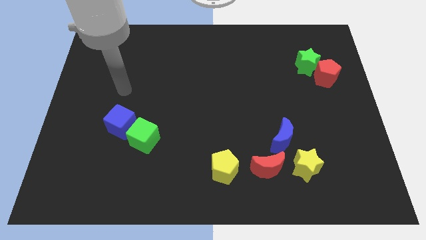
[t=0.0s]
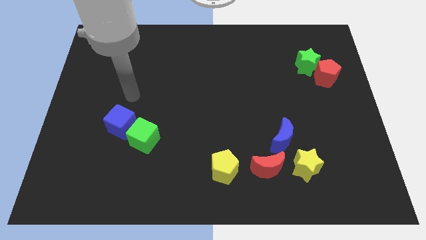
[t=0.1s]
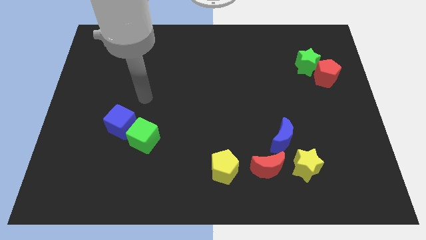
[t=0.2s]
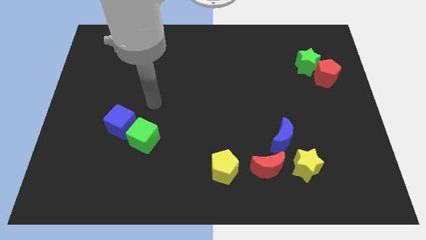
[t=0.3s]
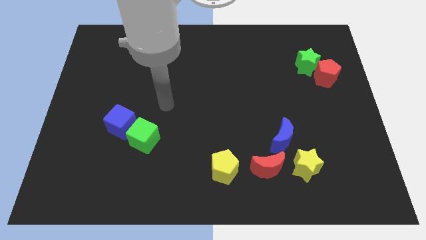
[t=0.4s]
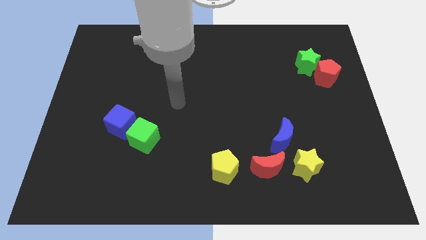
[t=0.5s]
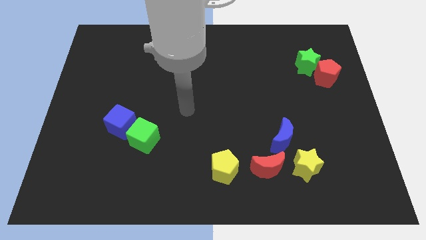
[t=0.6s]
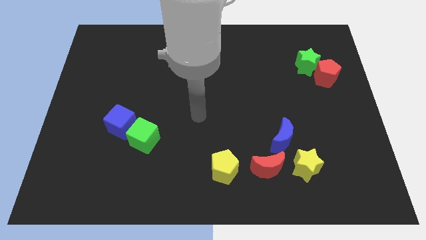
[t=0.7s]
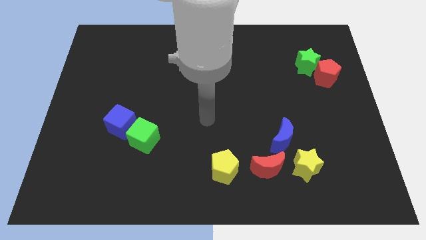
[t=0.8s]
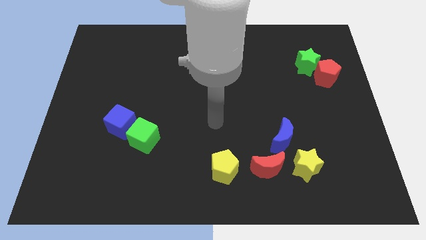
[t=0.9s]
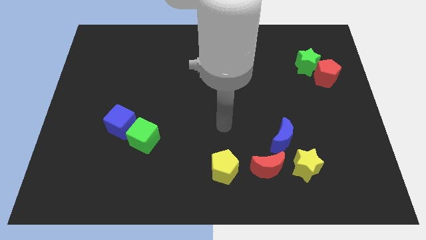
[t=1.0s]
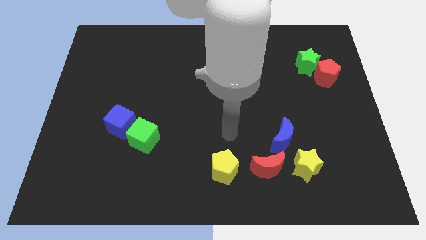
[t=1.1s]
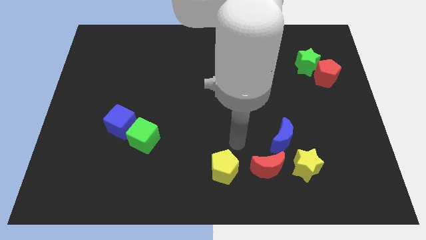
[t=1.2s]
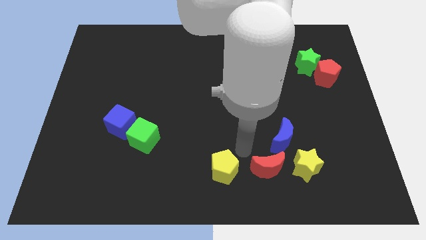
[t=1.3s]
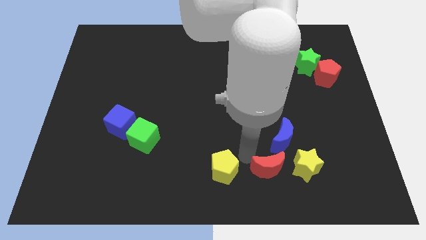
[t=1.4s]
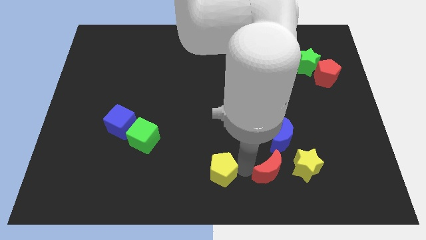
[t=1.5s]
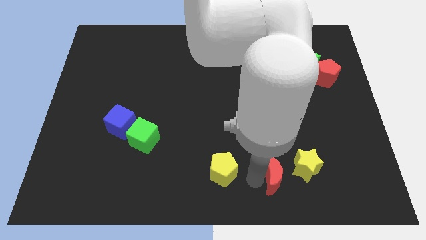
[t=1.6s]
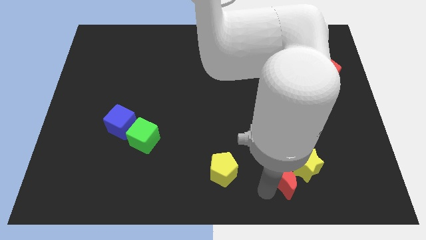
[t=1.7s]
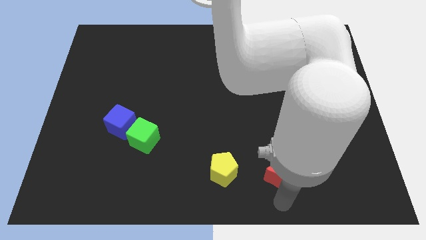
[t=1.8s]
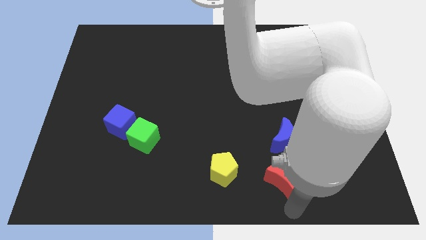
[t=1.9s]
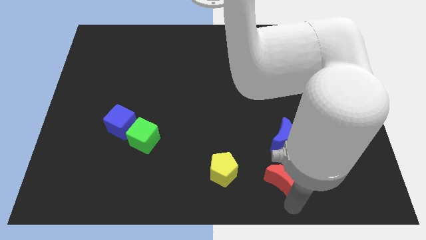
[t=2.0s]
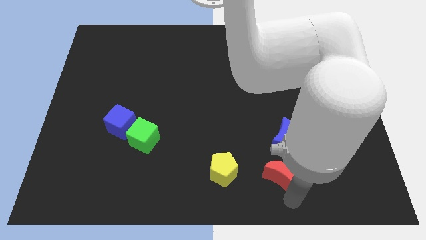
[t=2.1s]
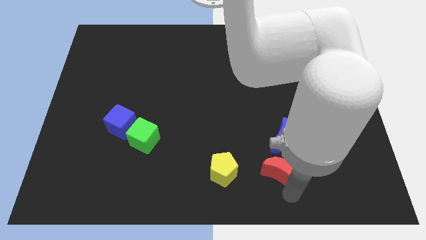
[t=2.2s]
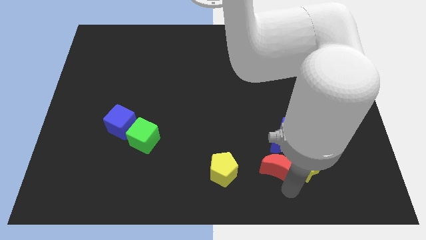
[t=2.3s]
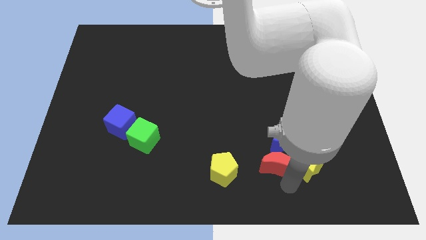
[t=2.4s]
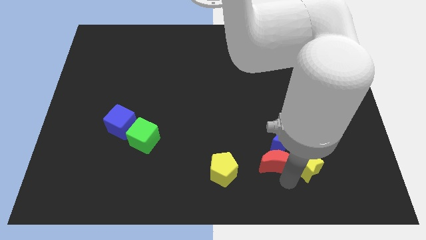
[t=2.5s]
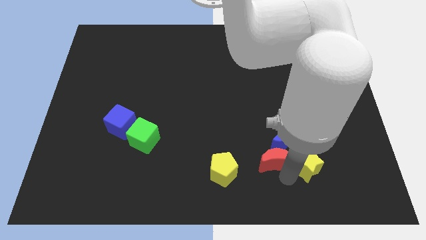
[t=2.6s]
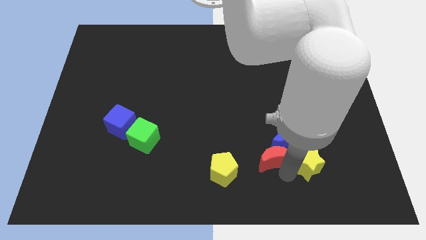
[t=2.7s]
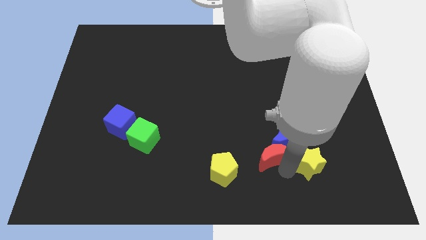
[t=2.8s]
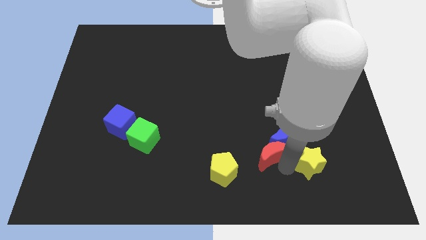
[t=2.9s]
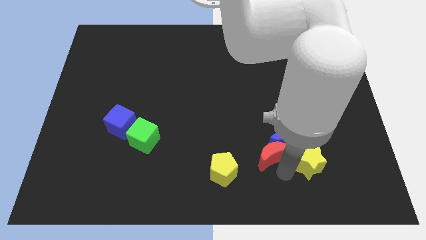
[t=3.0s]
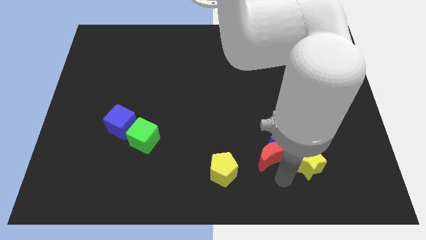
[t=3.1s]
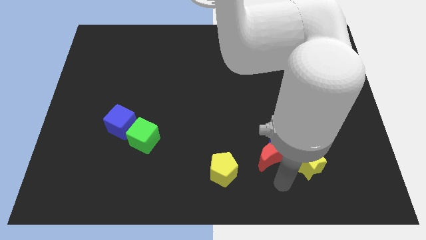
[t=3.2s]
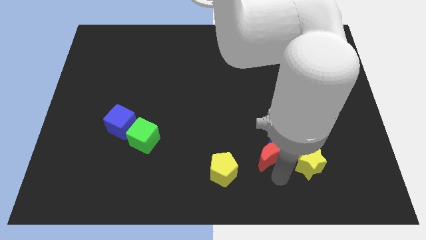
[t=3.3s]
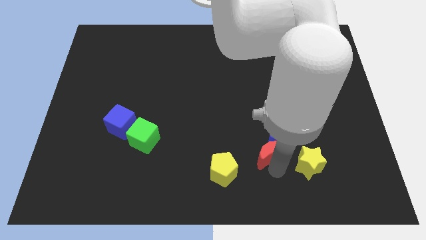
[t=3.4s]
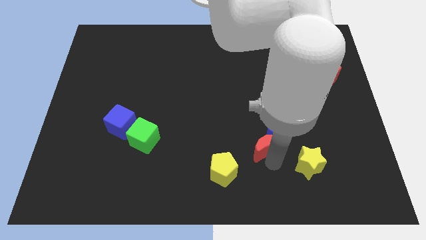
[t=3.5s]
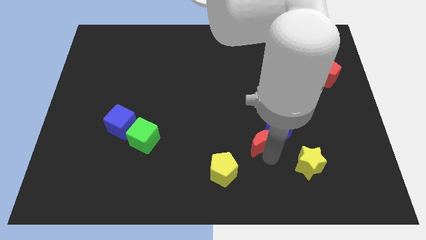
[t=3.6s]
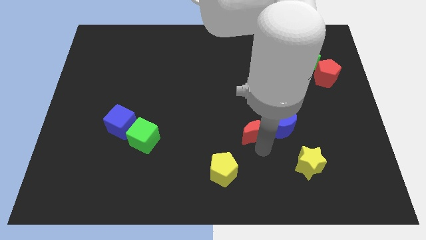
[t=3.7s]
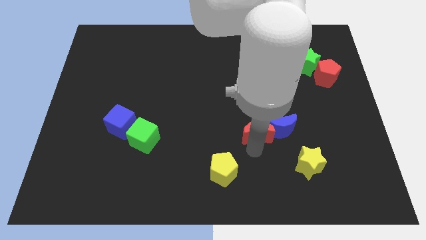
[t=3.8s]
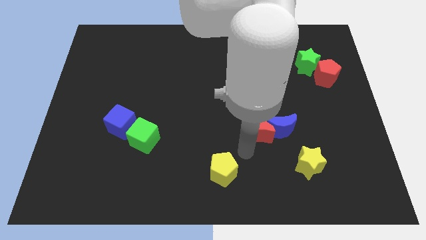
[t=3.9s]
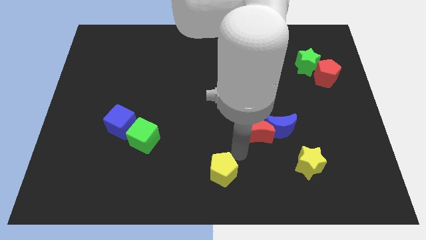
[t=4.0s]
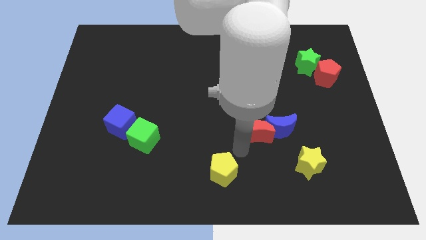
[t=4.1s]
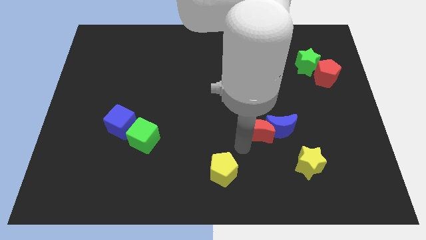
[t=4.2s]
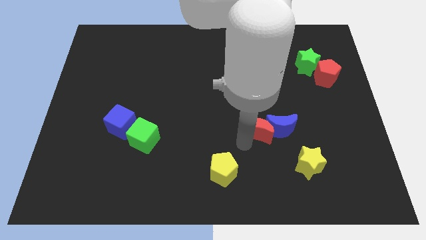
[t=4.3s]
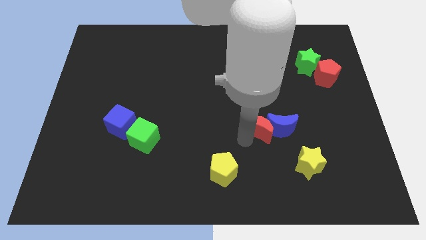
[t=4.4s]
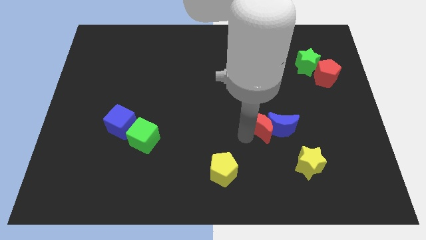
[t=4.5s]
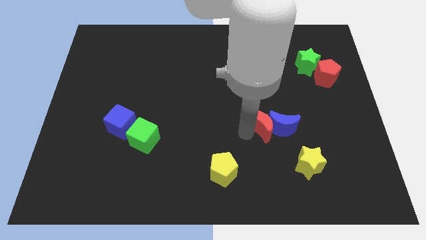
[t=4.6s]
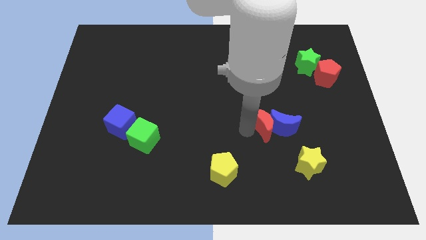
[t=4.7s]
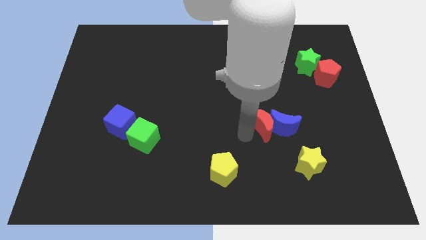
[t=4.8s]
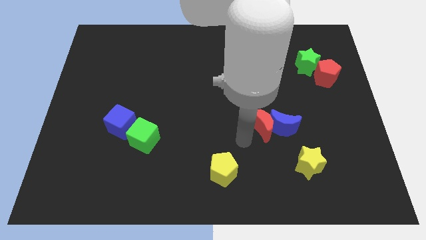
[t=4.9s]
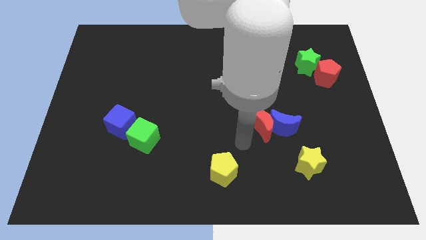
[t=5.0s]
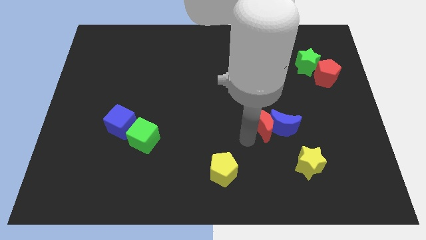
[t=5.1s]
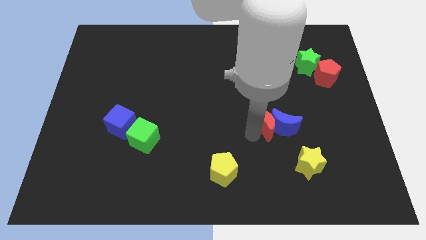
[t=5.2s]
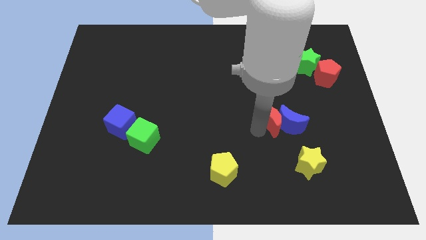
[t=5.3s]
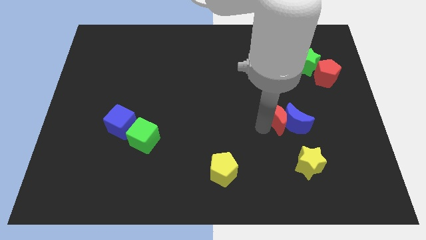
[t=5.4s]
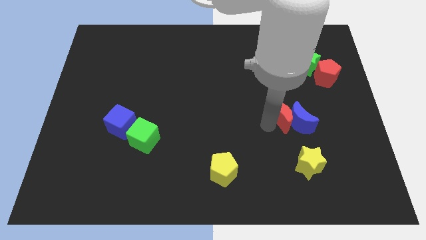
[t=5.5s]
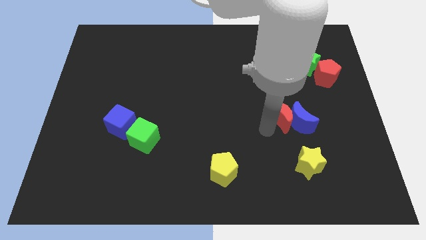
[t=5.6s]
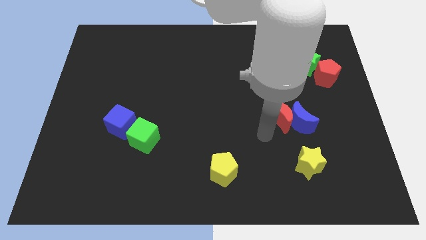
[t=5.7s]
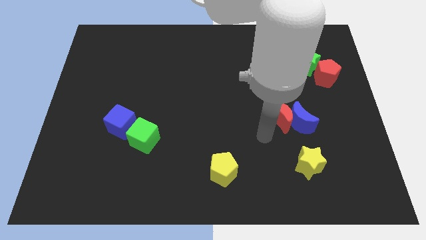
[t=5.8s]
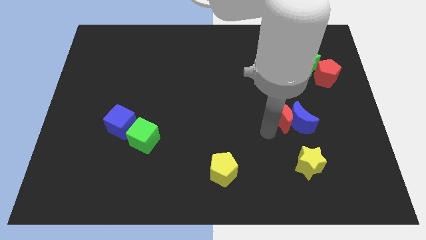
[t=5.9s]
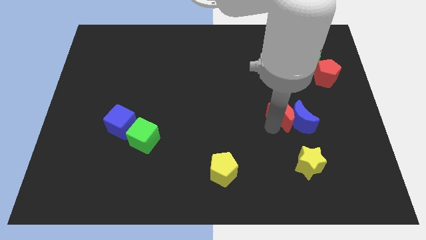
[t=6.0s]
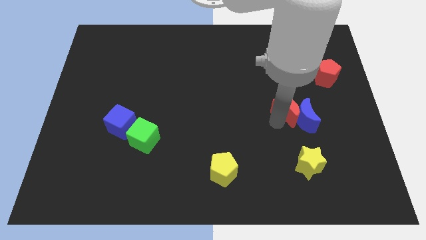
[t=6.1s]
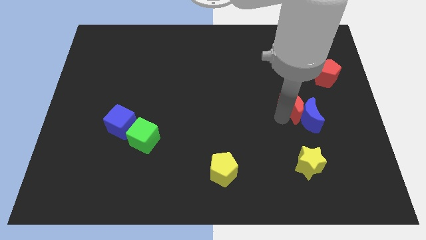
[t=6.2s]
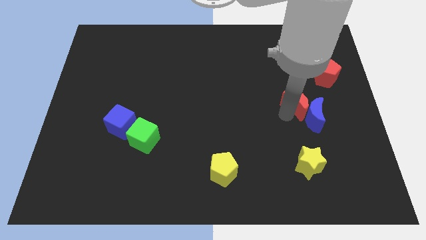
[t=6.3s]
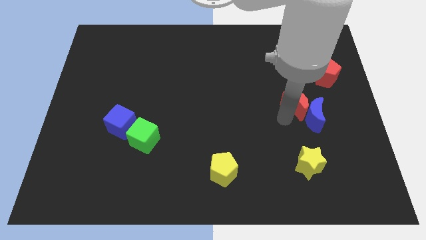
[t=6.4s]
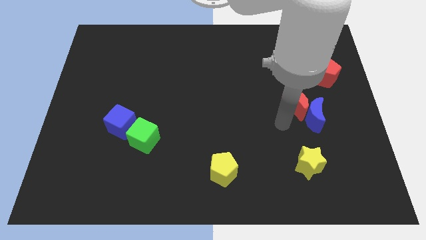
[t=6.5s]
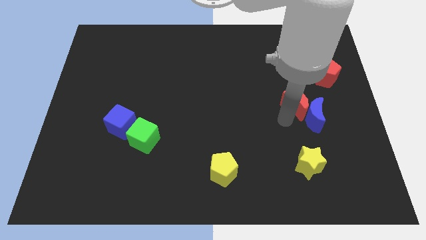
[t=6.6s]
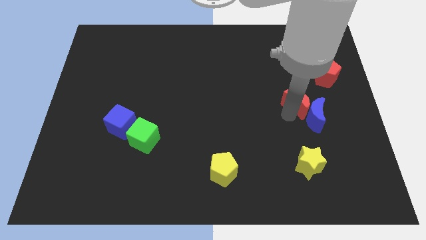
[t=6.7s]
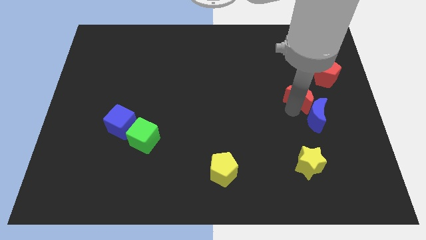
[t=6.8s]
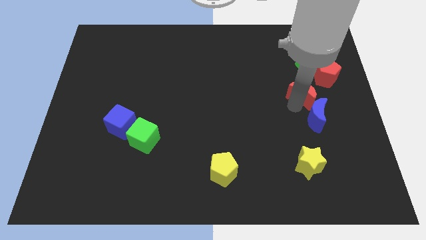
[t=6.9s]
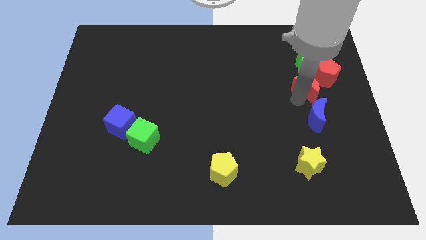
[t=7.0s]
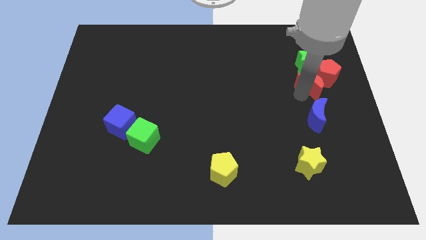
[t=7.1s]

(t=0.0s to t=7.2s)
move the red moon towards the red pentagon
